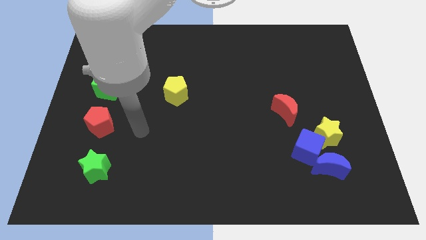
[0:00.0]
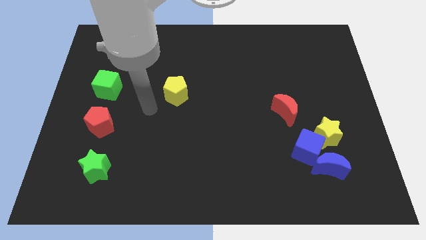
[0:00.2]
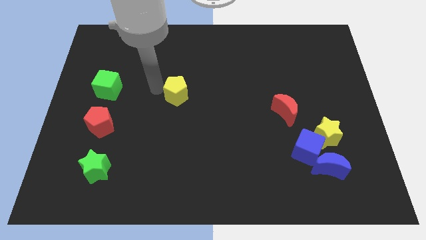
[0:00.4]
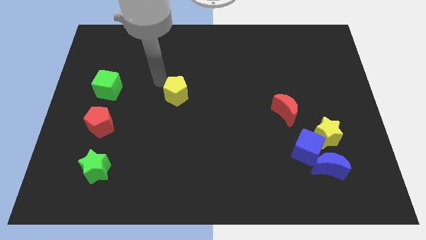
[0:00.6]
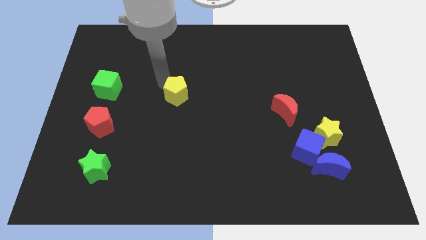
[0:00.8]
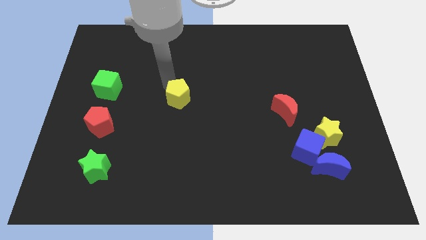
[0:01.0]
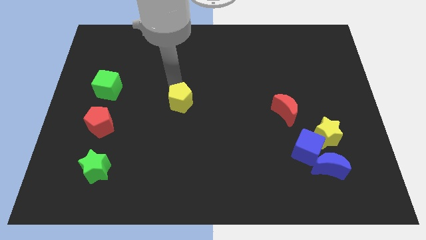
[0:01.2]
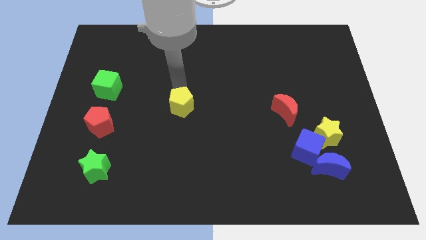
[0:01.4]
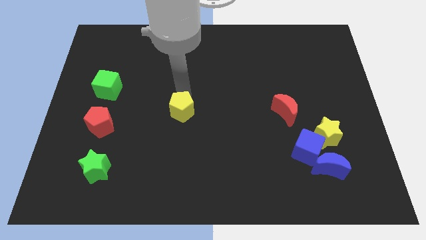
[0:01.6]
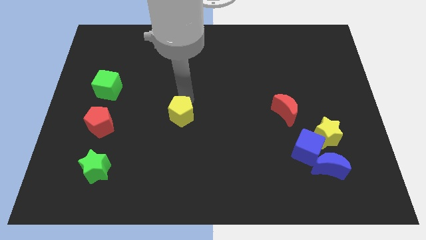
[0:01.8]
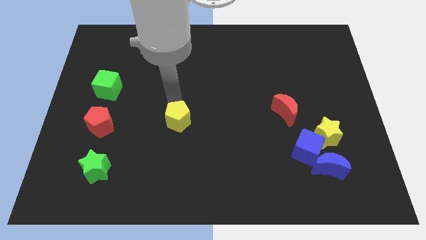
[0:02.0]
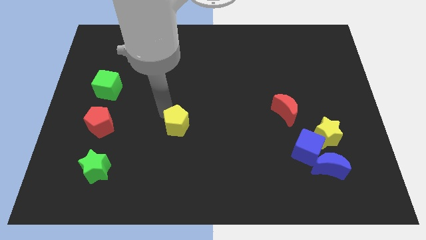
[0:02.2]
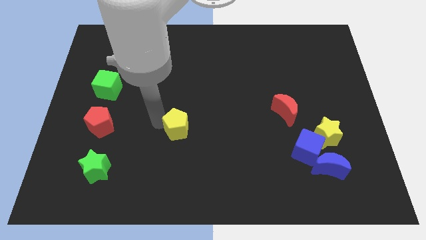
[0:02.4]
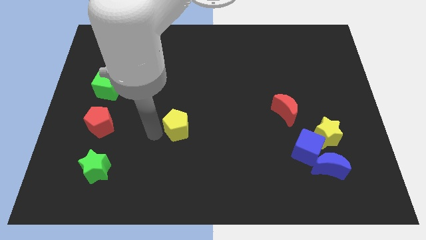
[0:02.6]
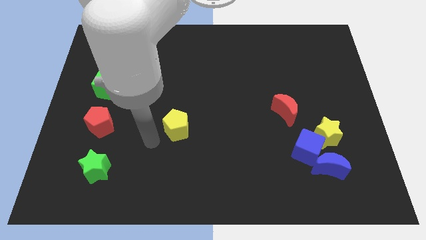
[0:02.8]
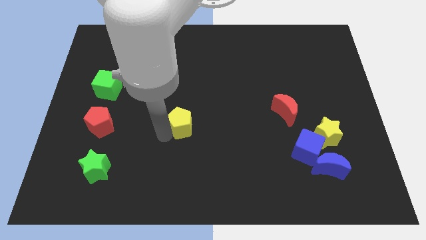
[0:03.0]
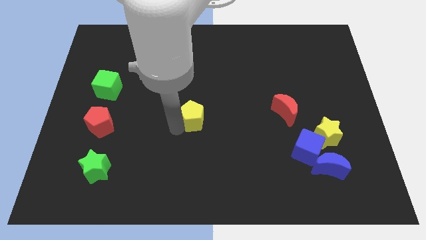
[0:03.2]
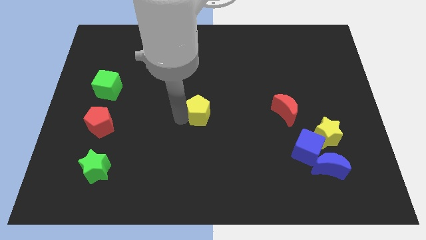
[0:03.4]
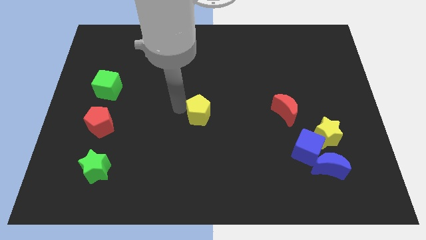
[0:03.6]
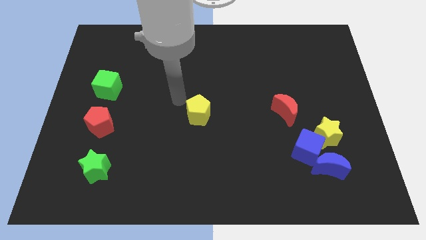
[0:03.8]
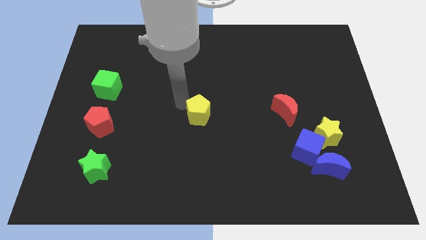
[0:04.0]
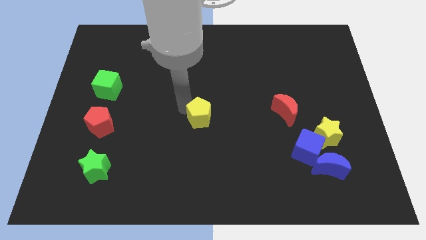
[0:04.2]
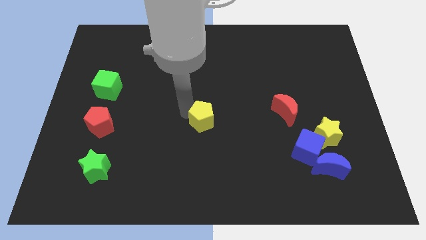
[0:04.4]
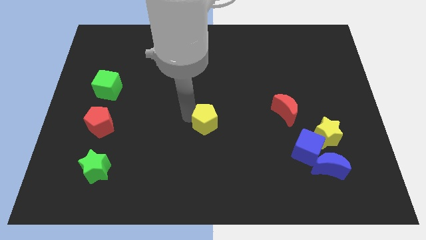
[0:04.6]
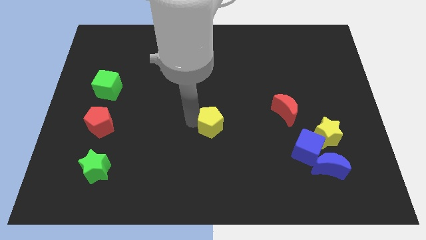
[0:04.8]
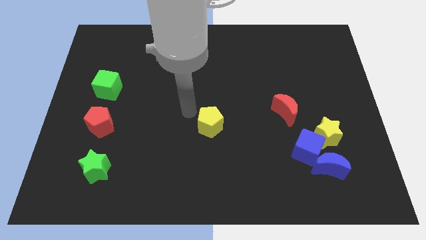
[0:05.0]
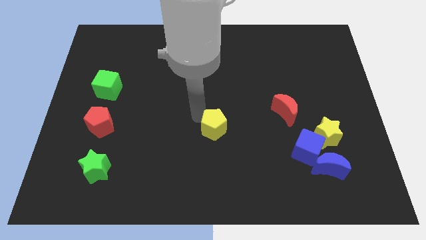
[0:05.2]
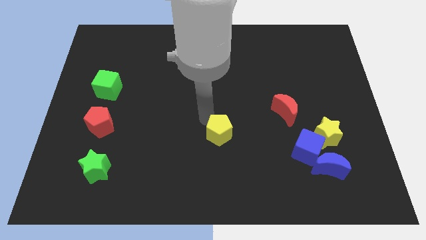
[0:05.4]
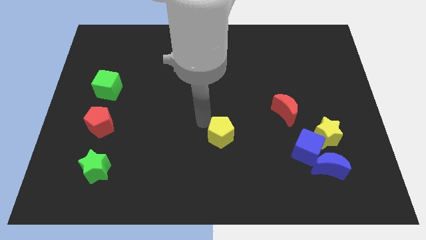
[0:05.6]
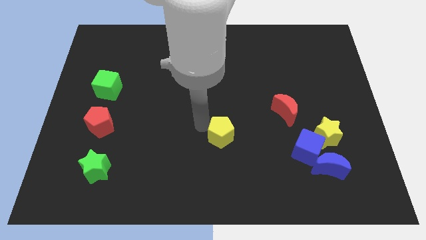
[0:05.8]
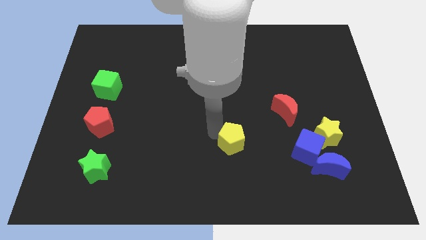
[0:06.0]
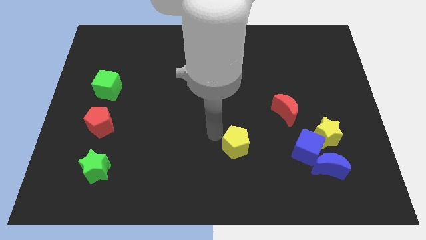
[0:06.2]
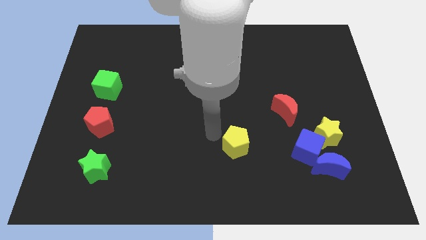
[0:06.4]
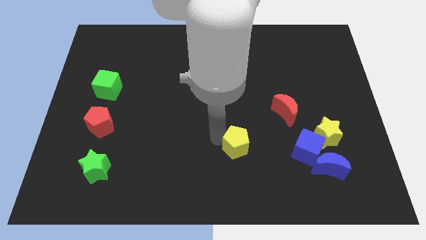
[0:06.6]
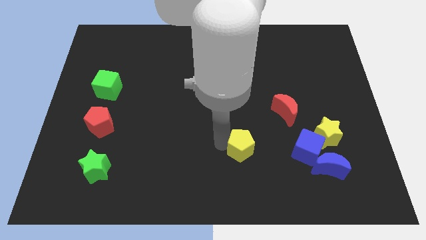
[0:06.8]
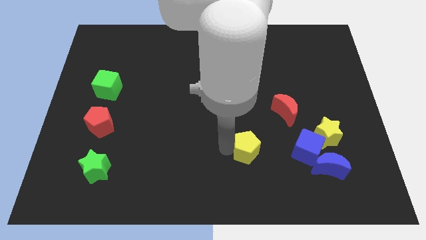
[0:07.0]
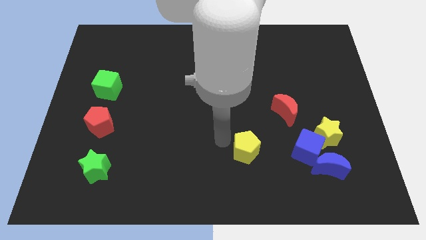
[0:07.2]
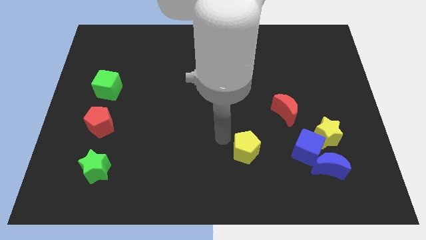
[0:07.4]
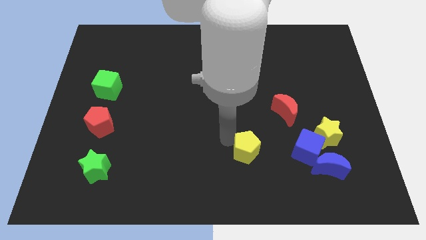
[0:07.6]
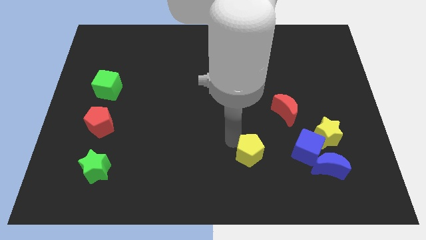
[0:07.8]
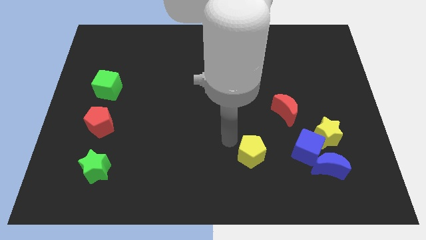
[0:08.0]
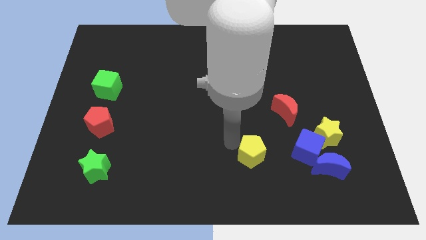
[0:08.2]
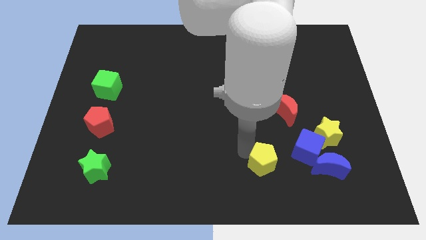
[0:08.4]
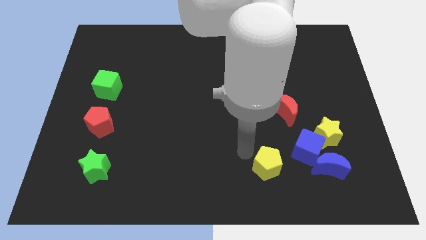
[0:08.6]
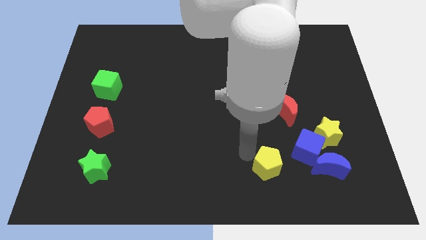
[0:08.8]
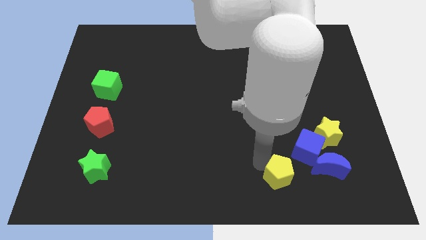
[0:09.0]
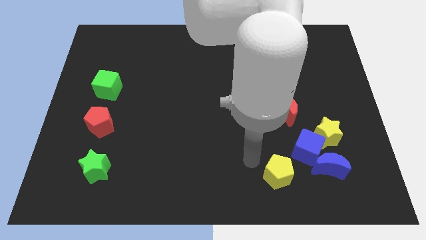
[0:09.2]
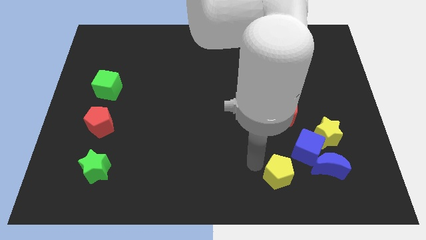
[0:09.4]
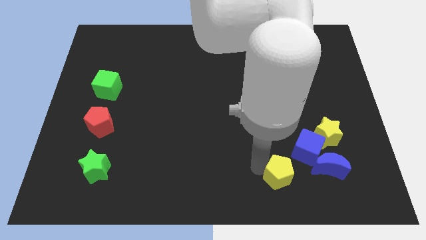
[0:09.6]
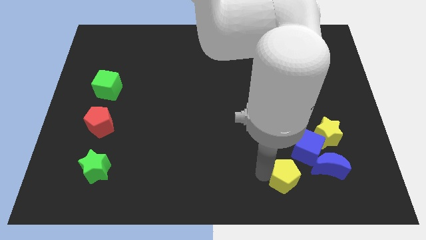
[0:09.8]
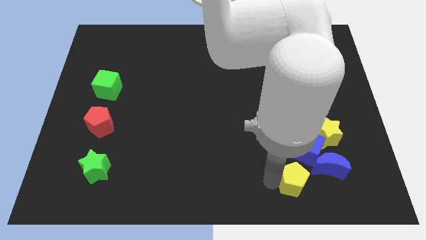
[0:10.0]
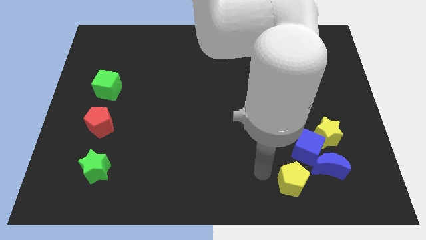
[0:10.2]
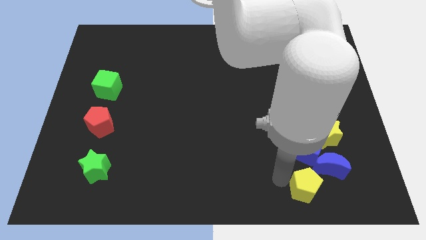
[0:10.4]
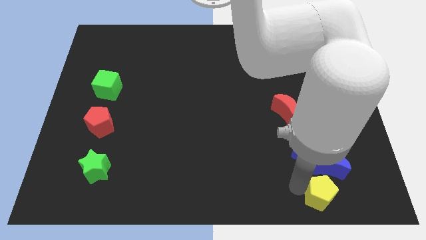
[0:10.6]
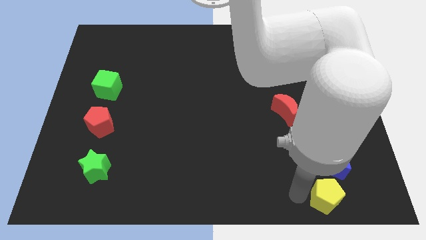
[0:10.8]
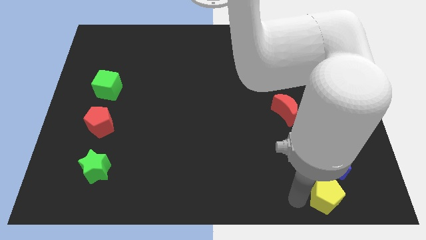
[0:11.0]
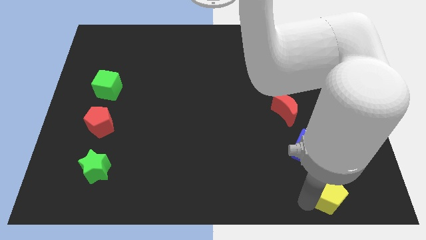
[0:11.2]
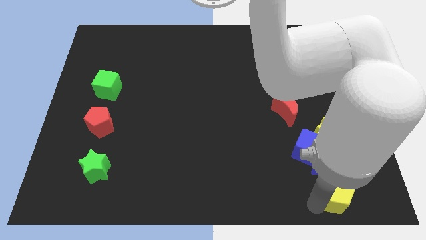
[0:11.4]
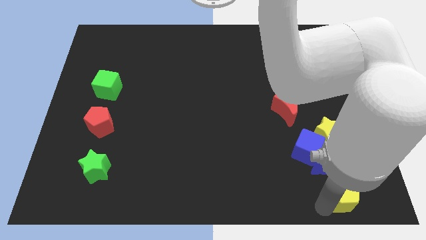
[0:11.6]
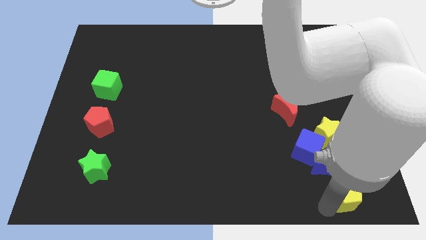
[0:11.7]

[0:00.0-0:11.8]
move the yellow pentagon to the bottom right of the board

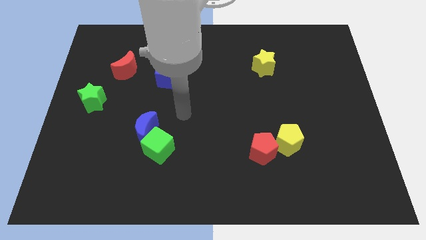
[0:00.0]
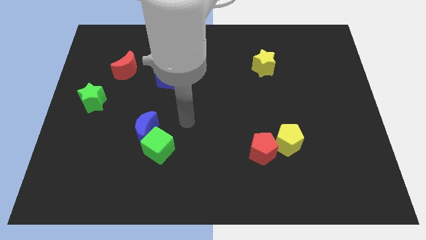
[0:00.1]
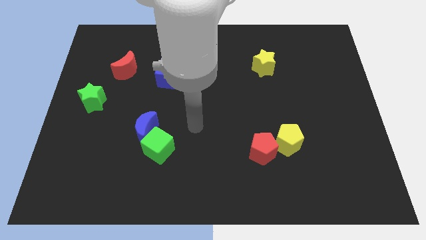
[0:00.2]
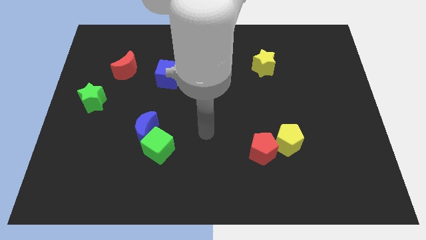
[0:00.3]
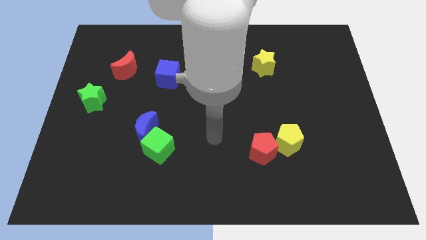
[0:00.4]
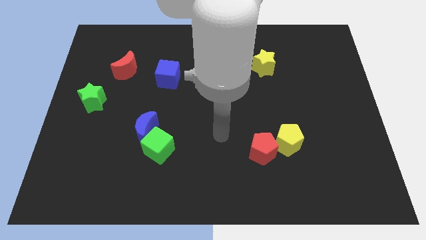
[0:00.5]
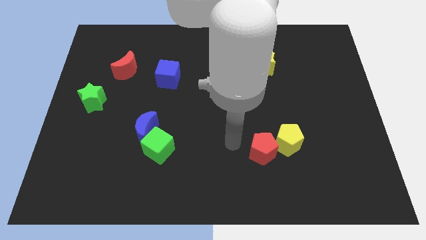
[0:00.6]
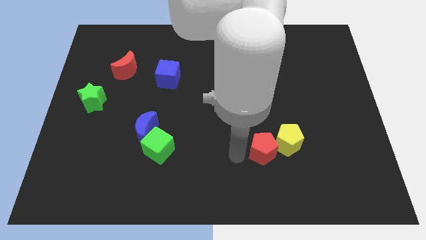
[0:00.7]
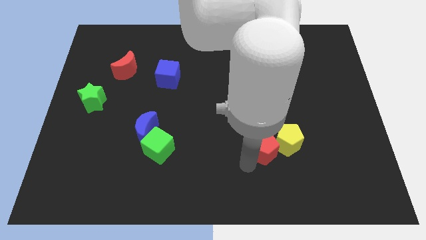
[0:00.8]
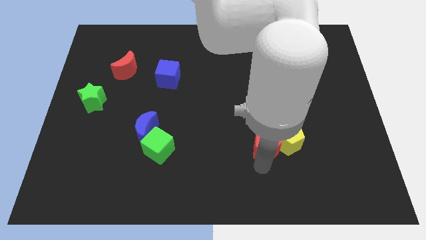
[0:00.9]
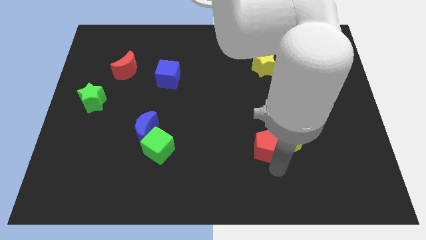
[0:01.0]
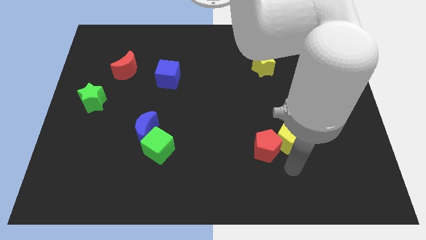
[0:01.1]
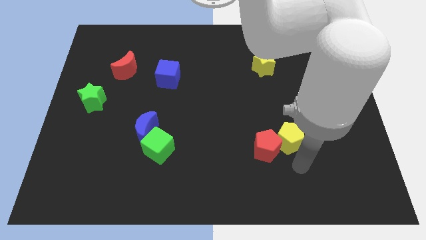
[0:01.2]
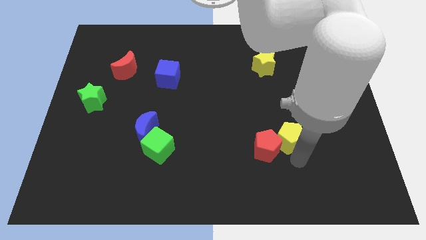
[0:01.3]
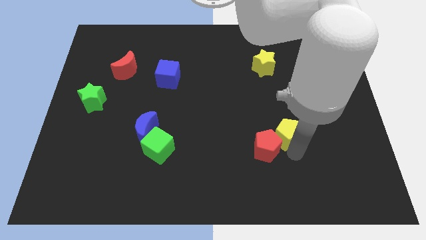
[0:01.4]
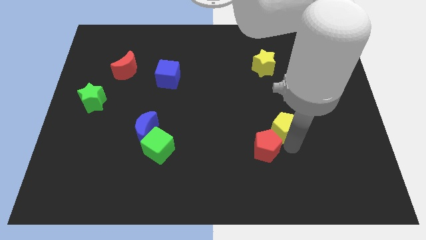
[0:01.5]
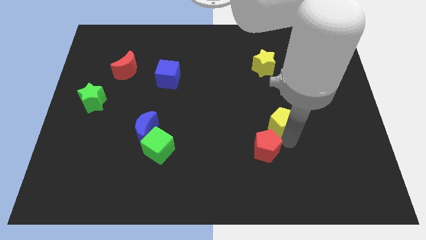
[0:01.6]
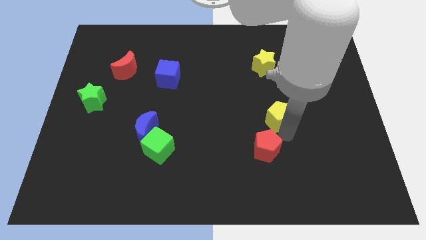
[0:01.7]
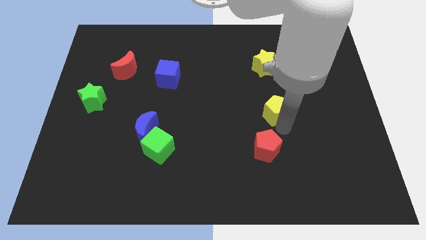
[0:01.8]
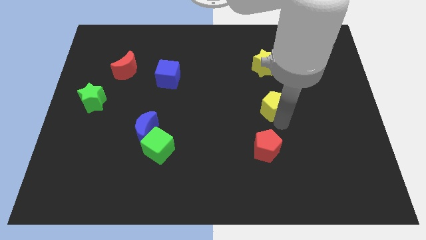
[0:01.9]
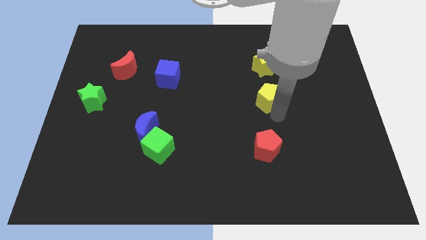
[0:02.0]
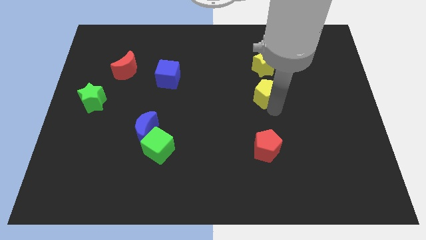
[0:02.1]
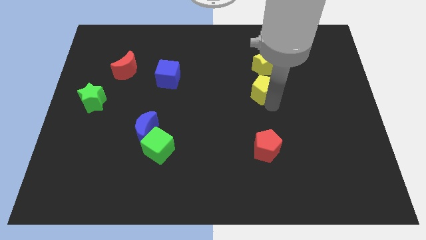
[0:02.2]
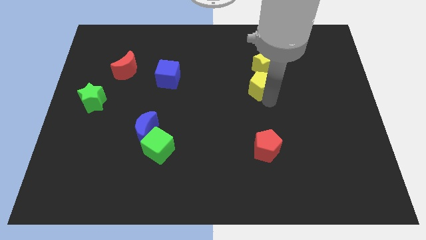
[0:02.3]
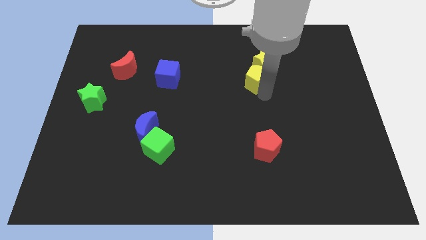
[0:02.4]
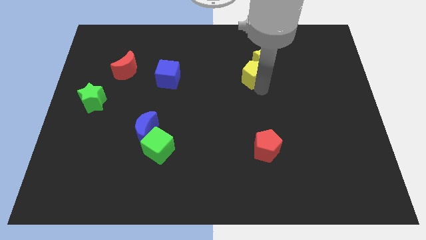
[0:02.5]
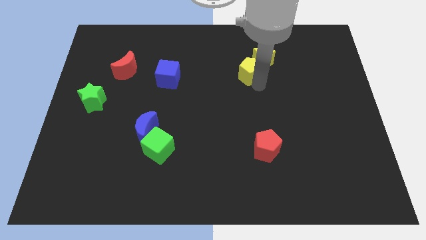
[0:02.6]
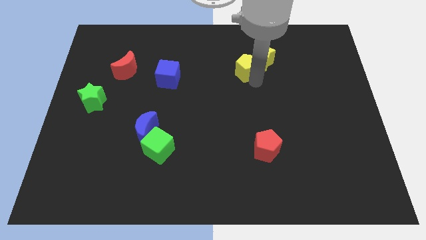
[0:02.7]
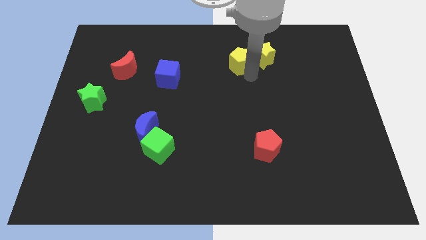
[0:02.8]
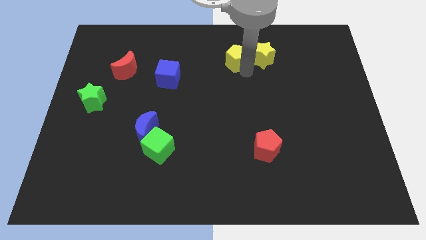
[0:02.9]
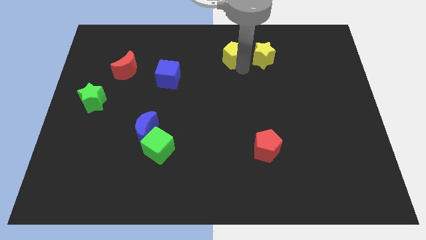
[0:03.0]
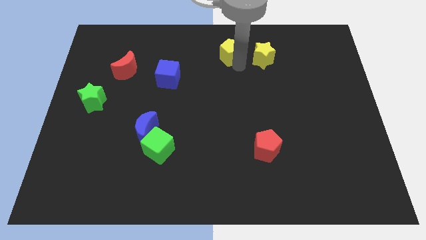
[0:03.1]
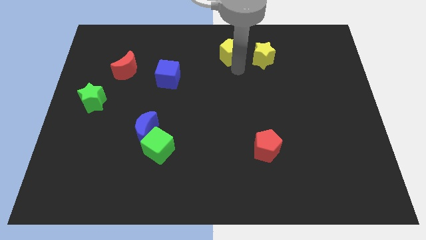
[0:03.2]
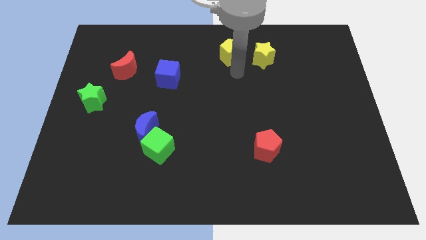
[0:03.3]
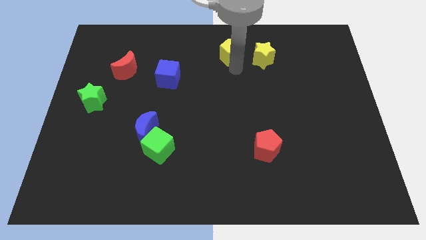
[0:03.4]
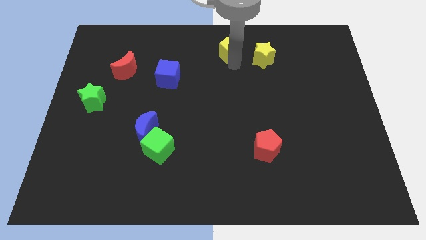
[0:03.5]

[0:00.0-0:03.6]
put the yellow pentagon to the top side
